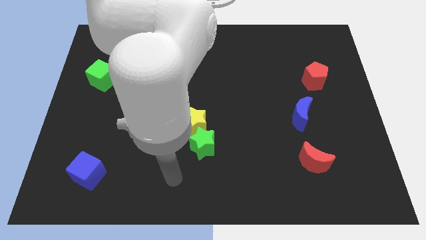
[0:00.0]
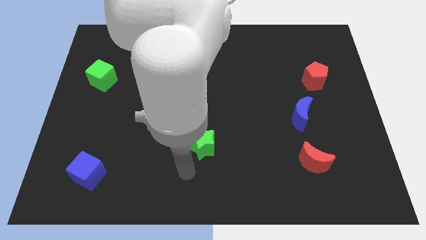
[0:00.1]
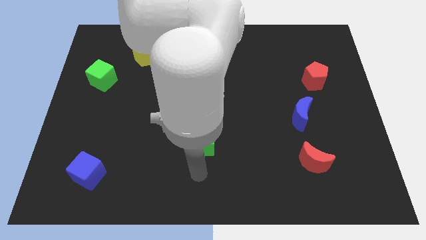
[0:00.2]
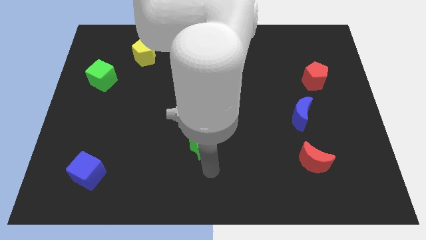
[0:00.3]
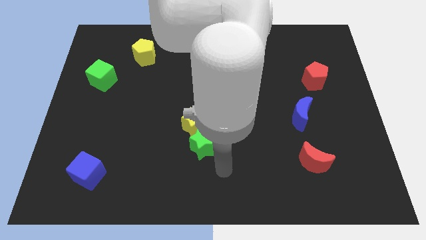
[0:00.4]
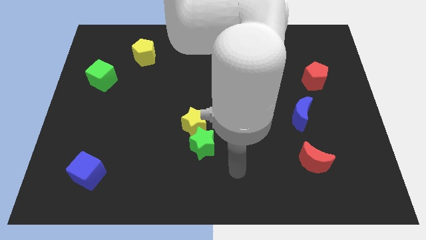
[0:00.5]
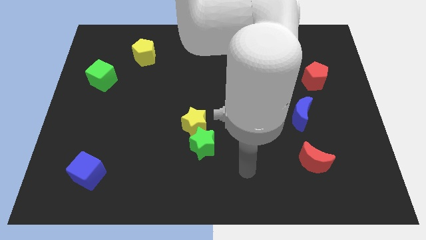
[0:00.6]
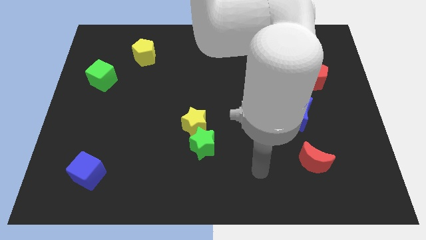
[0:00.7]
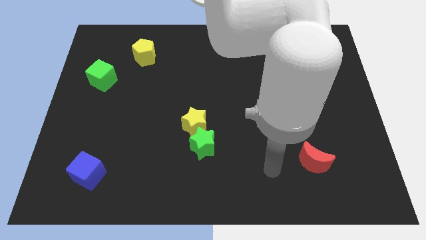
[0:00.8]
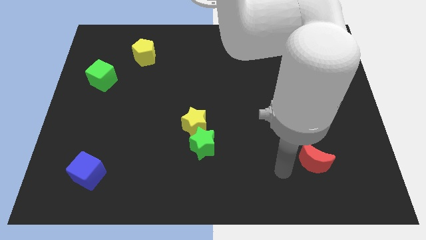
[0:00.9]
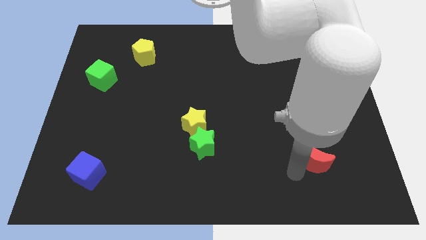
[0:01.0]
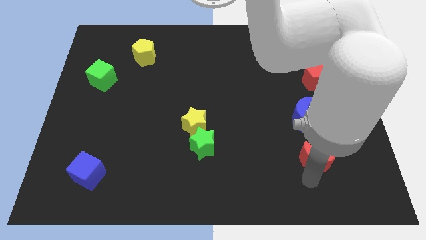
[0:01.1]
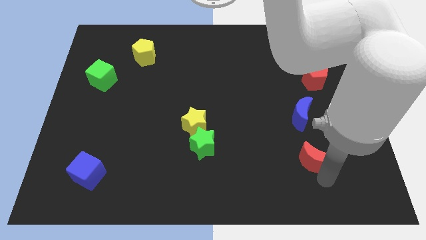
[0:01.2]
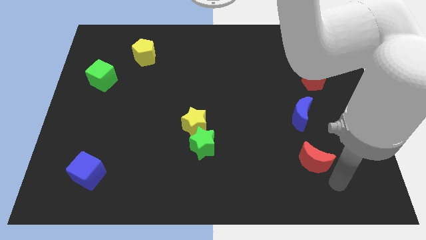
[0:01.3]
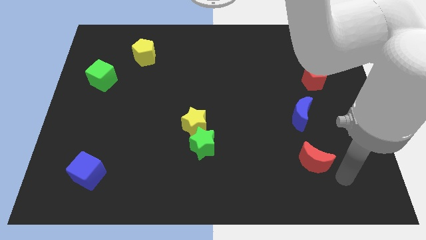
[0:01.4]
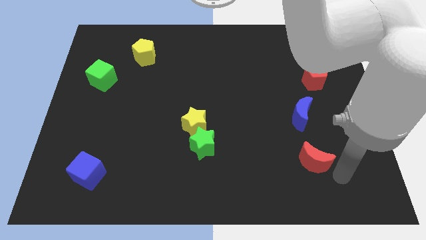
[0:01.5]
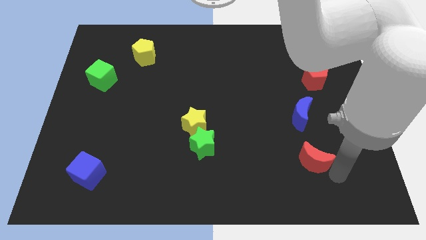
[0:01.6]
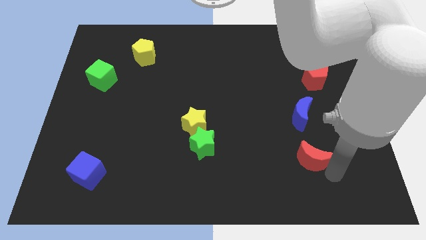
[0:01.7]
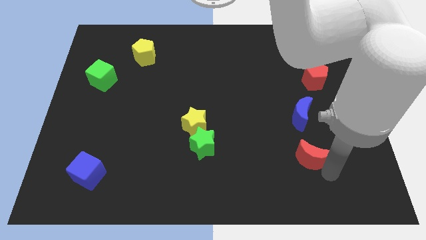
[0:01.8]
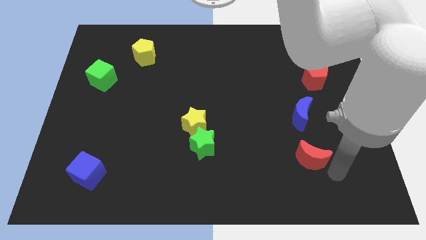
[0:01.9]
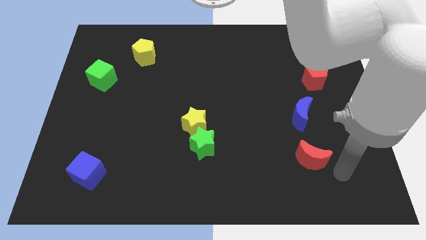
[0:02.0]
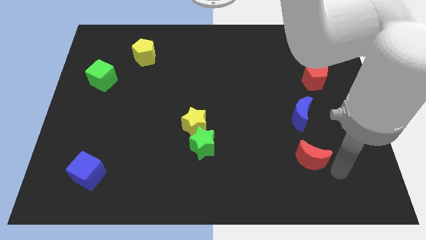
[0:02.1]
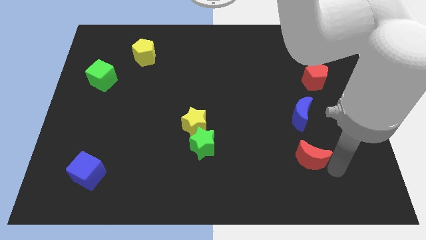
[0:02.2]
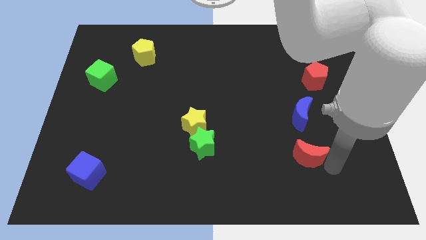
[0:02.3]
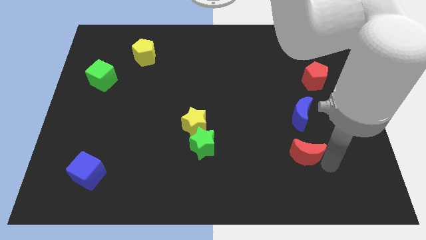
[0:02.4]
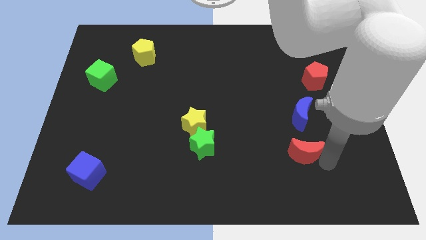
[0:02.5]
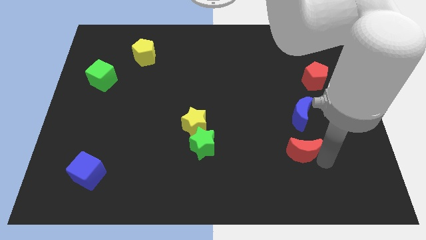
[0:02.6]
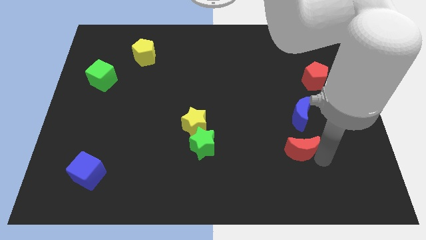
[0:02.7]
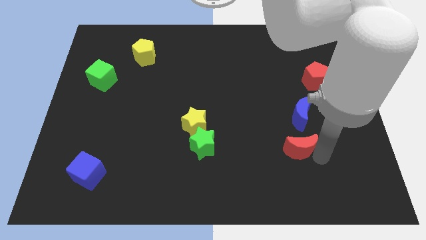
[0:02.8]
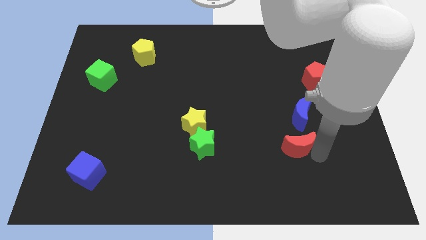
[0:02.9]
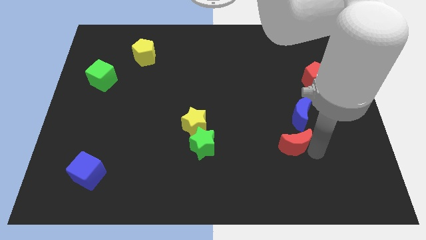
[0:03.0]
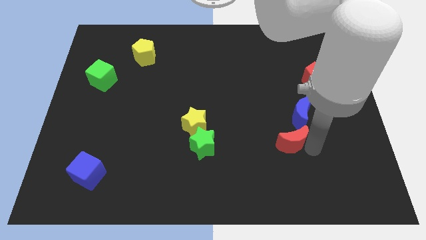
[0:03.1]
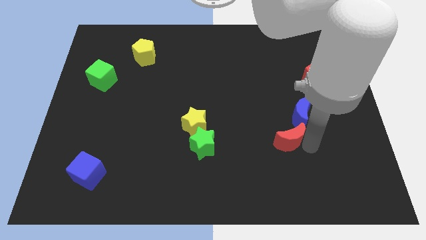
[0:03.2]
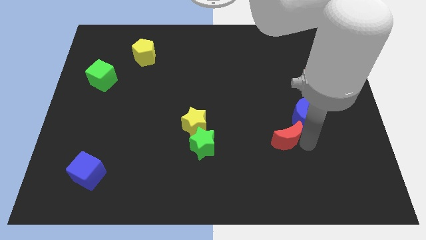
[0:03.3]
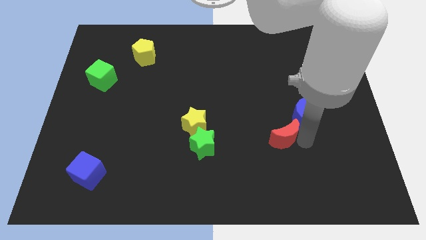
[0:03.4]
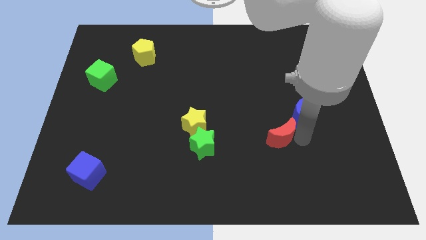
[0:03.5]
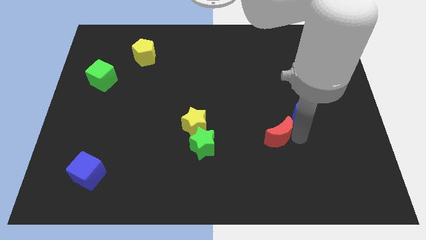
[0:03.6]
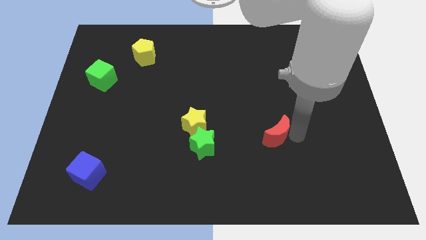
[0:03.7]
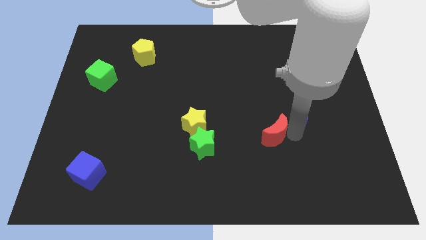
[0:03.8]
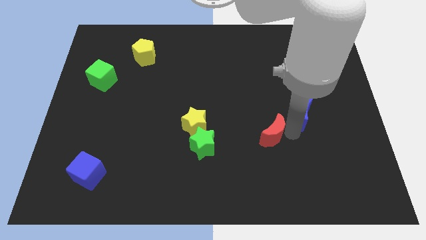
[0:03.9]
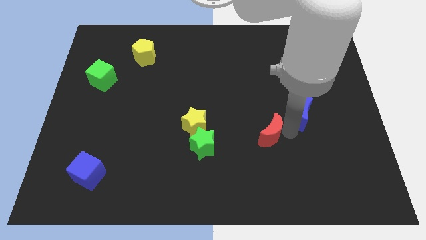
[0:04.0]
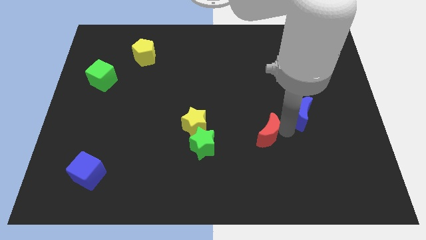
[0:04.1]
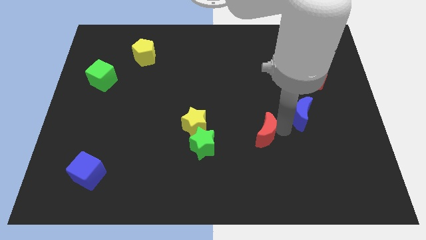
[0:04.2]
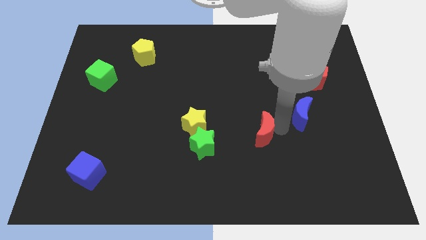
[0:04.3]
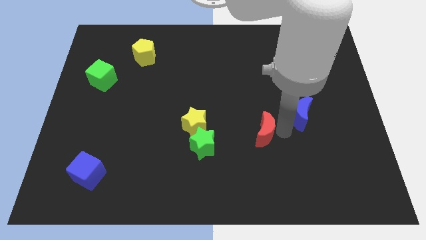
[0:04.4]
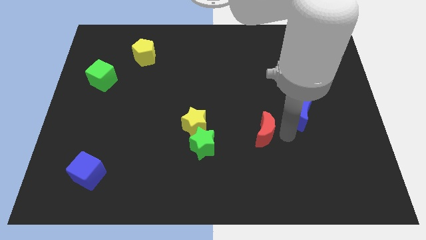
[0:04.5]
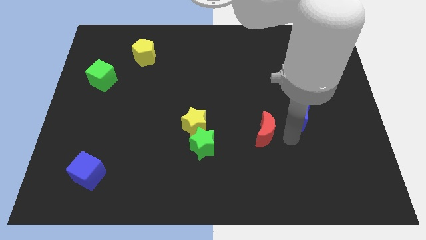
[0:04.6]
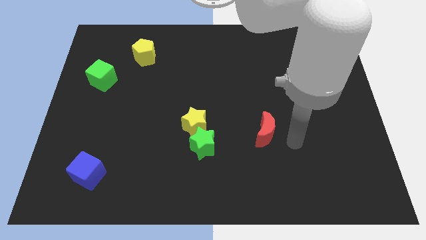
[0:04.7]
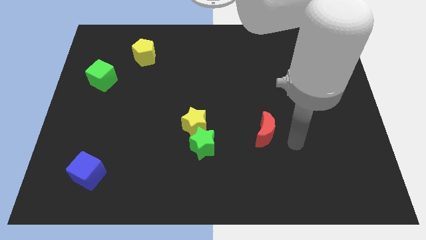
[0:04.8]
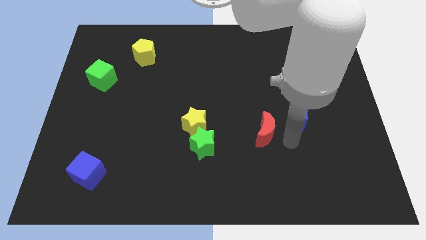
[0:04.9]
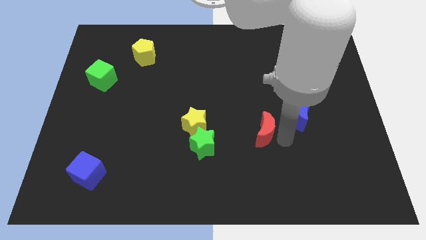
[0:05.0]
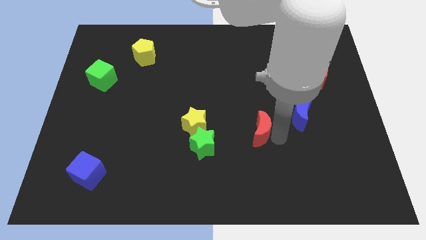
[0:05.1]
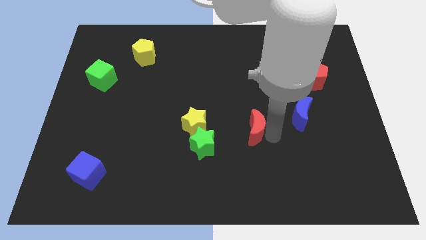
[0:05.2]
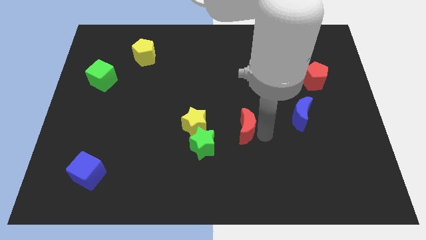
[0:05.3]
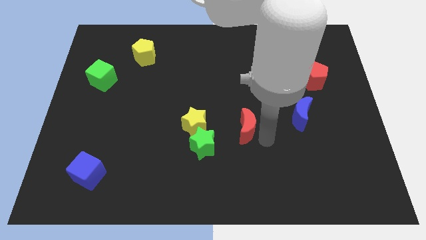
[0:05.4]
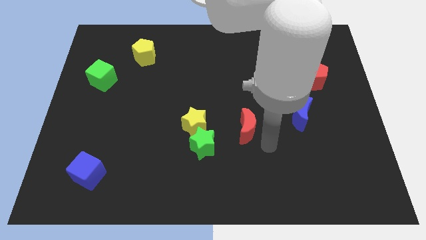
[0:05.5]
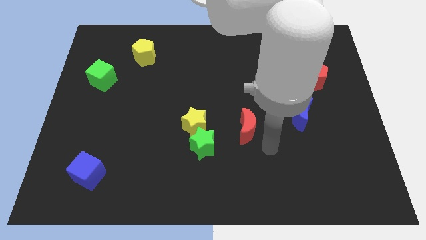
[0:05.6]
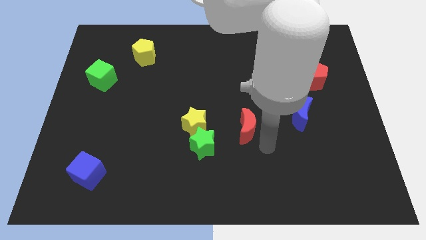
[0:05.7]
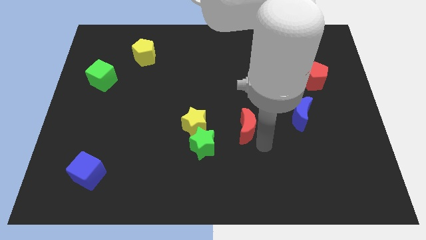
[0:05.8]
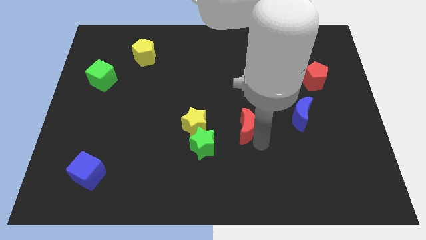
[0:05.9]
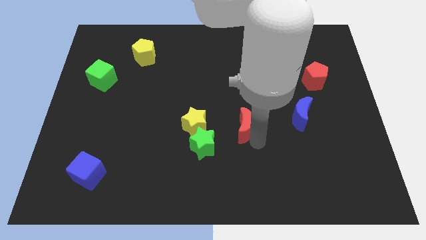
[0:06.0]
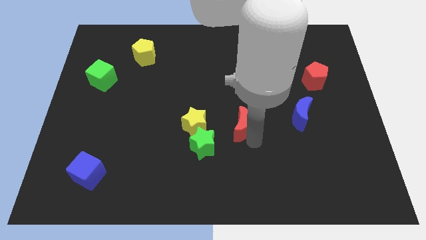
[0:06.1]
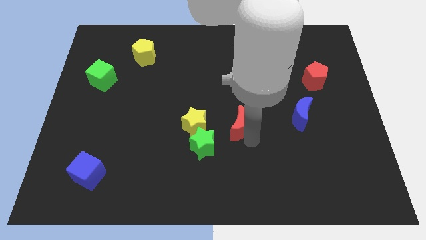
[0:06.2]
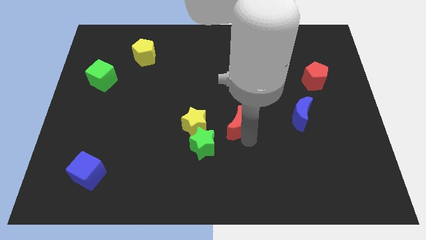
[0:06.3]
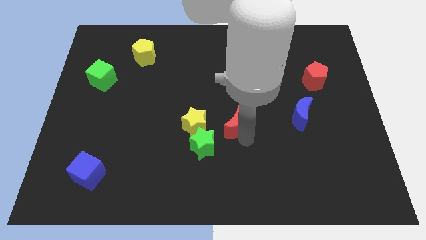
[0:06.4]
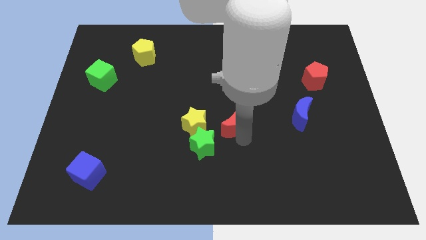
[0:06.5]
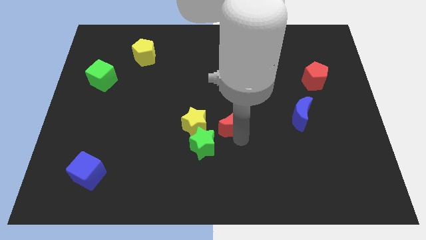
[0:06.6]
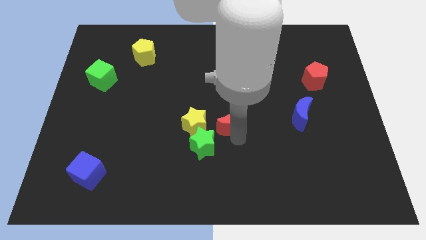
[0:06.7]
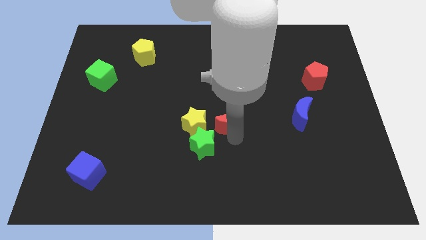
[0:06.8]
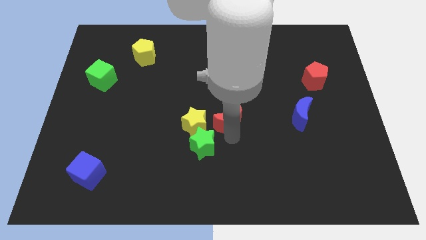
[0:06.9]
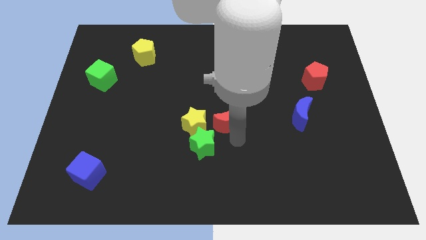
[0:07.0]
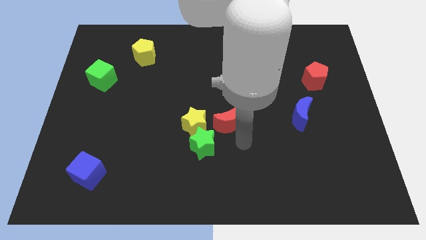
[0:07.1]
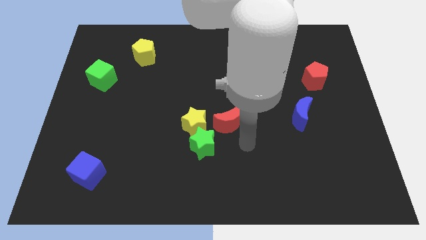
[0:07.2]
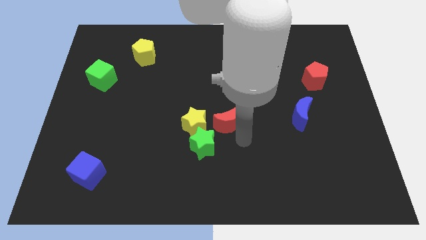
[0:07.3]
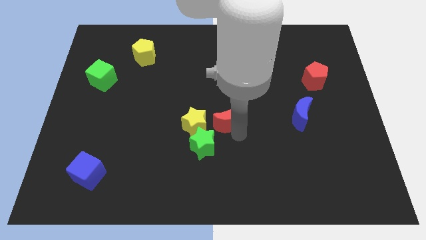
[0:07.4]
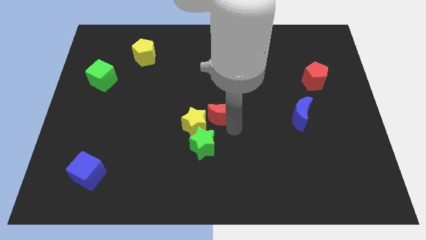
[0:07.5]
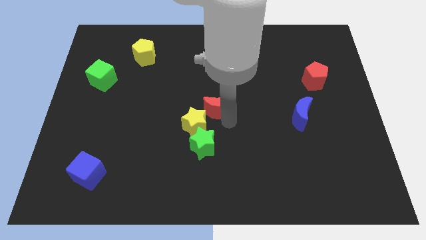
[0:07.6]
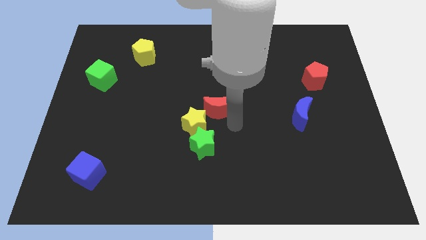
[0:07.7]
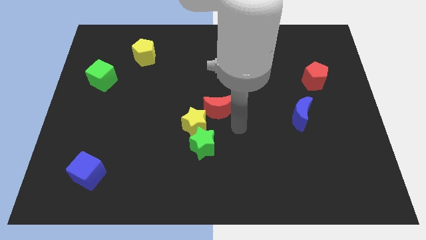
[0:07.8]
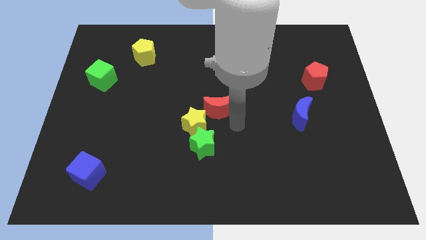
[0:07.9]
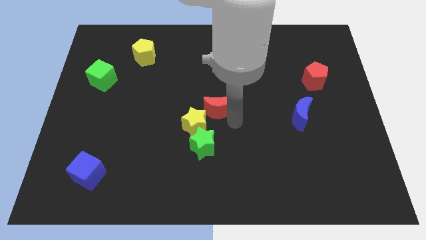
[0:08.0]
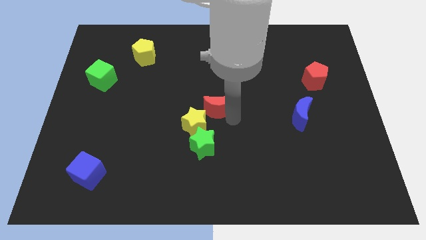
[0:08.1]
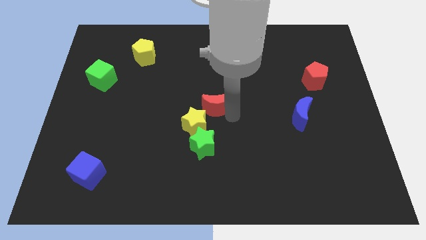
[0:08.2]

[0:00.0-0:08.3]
put the red moon above the yellow star
